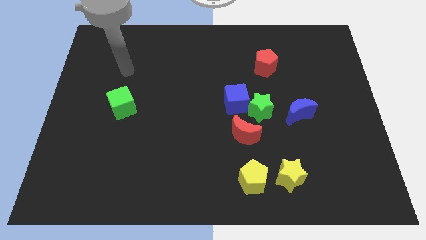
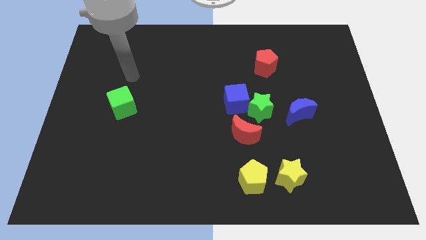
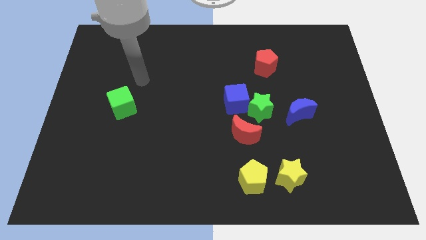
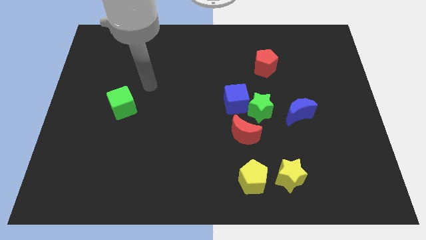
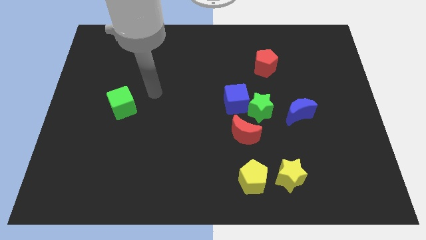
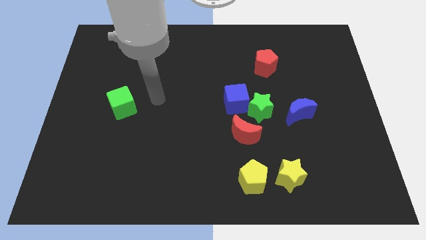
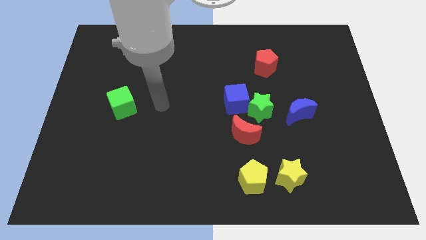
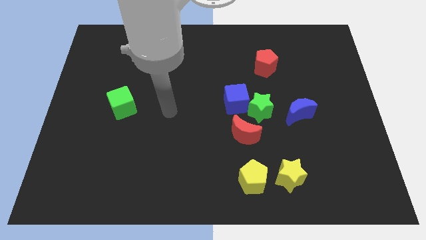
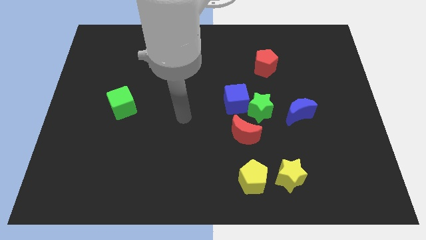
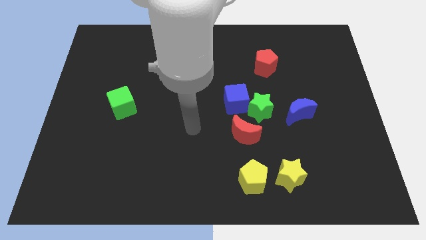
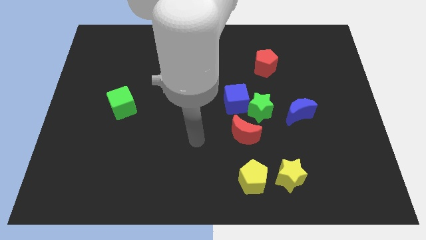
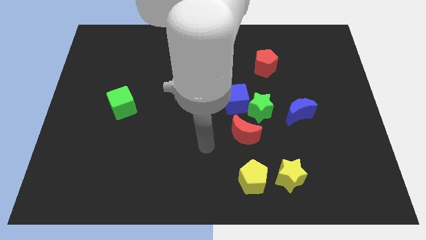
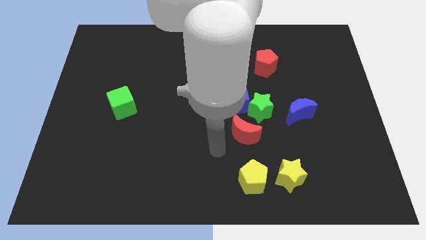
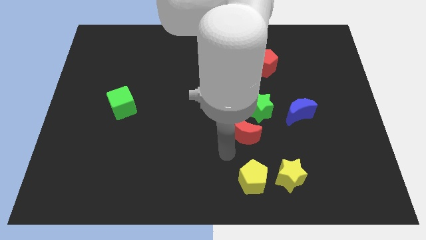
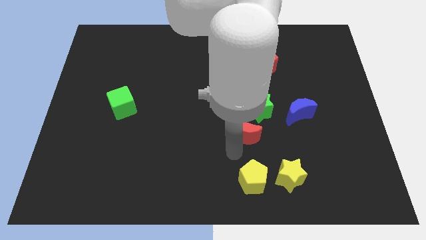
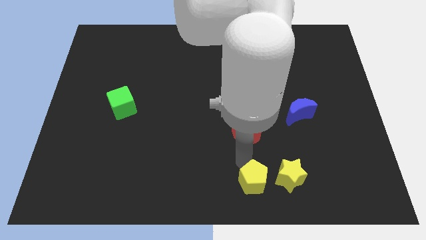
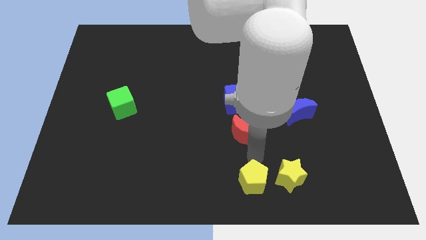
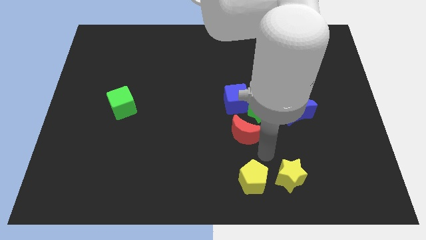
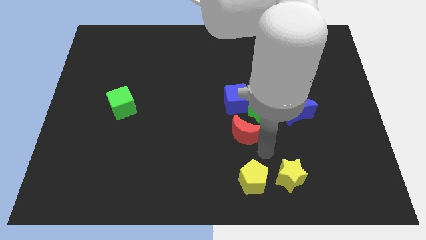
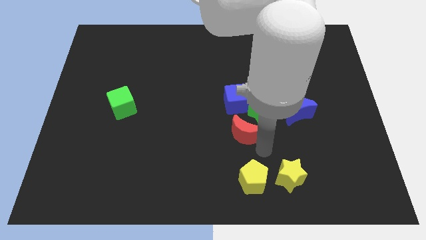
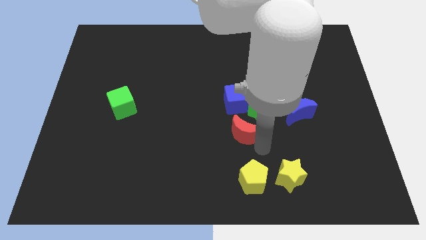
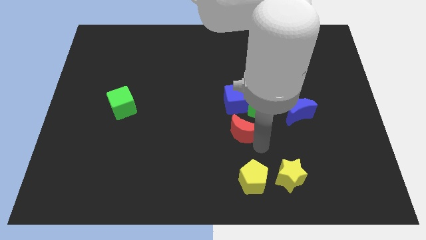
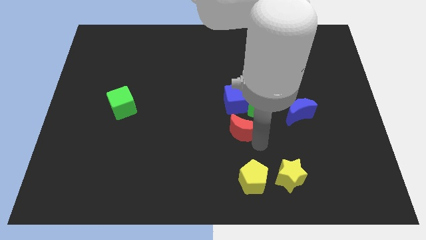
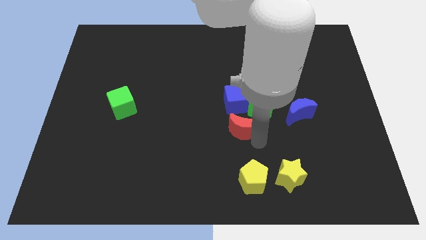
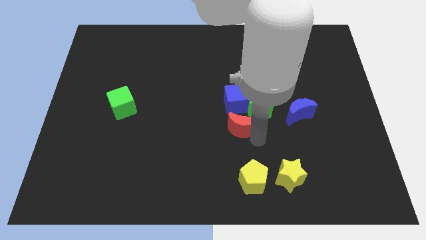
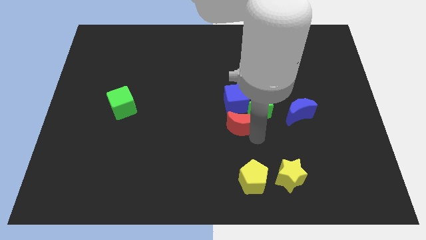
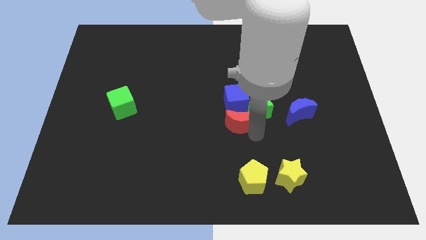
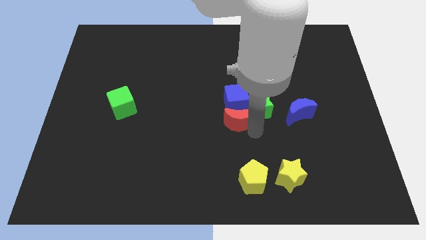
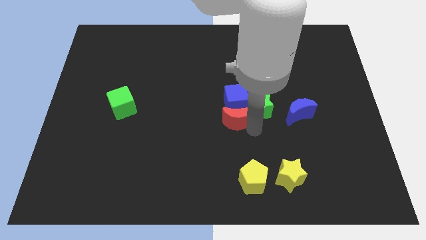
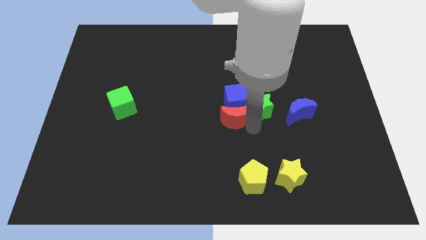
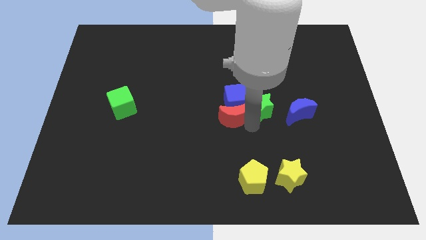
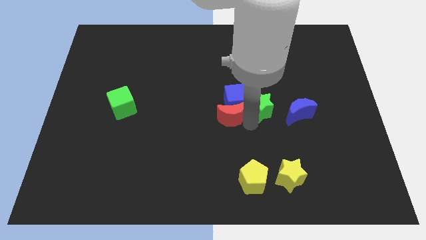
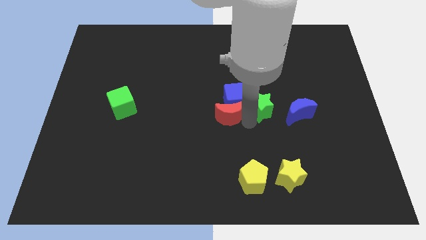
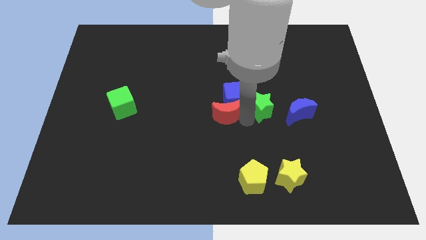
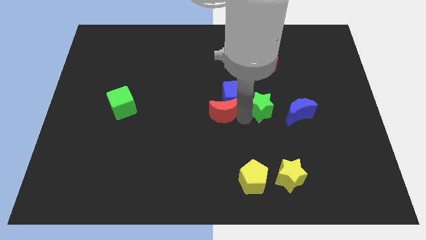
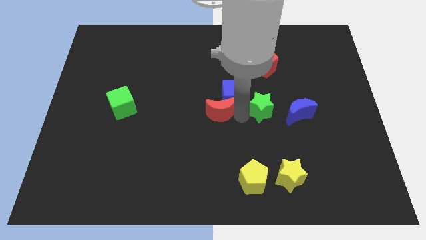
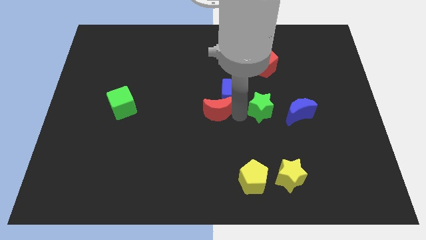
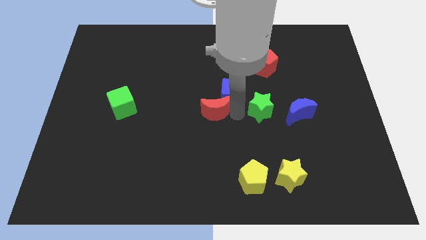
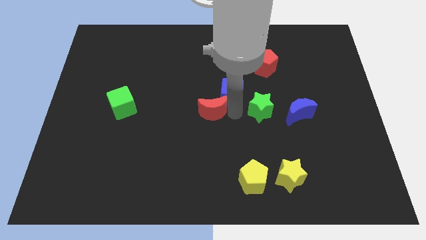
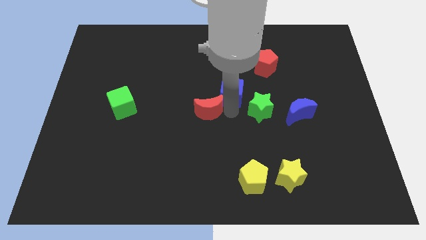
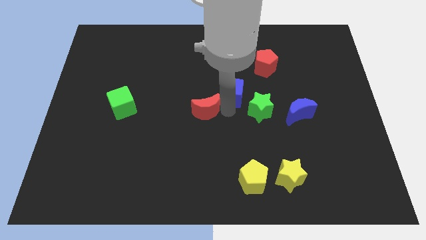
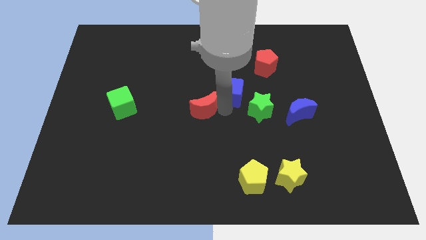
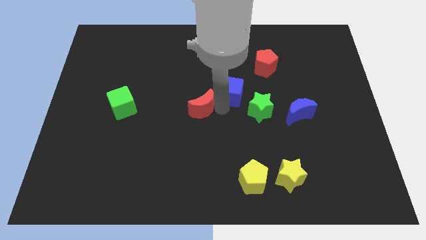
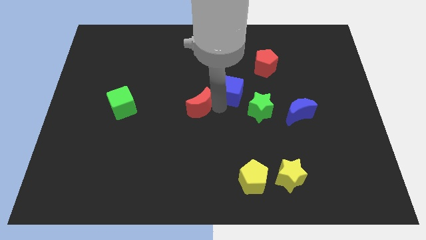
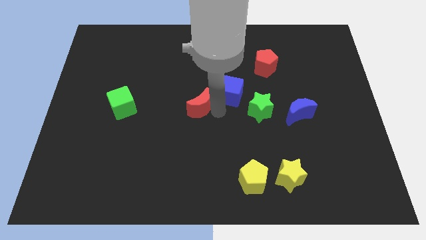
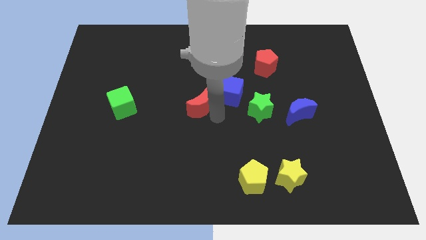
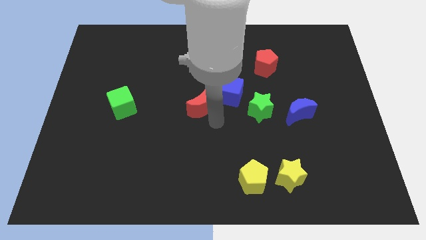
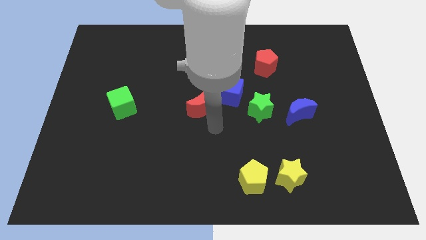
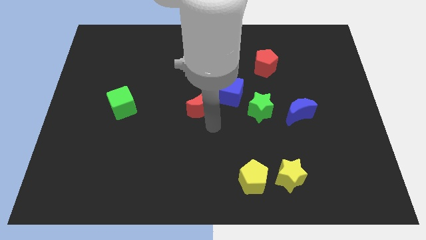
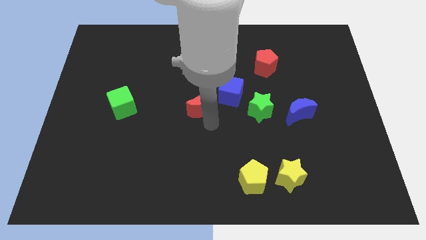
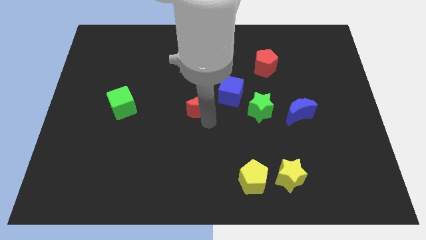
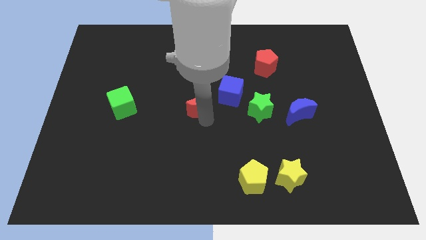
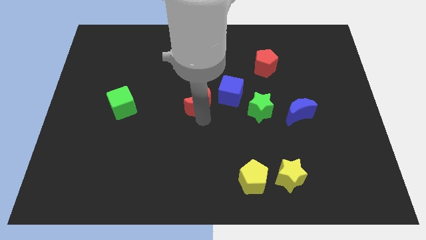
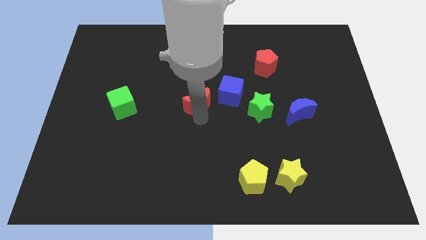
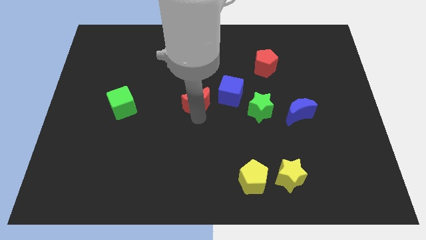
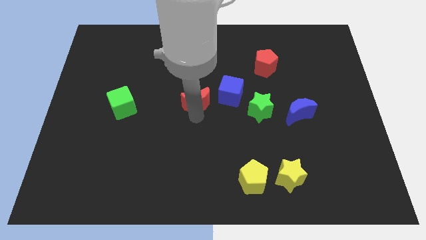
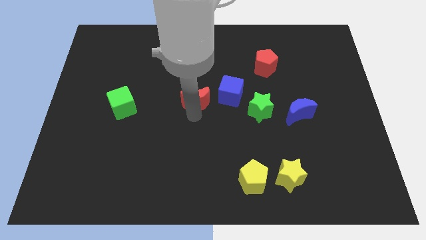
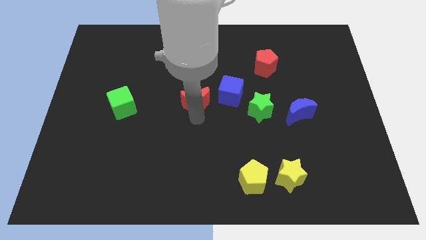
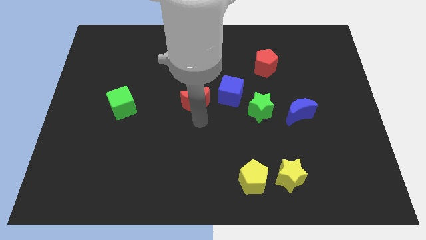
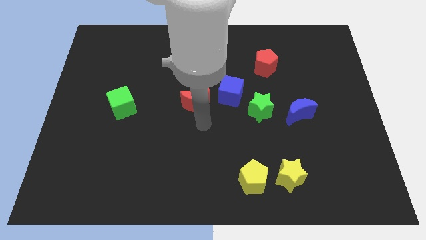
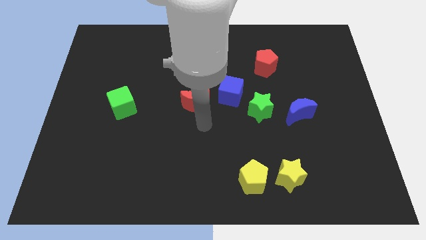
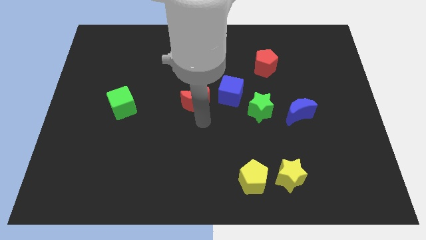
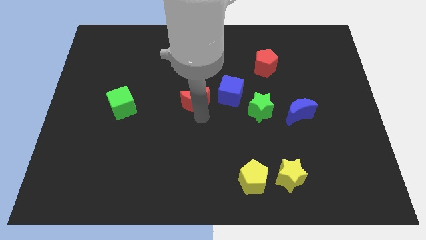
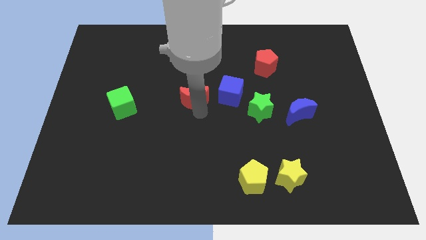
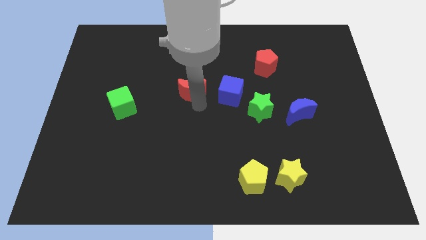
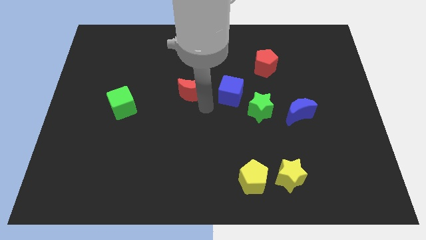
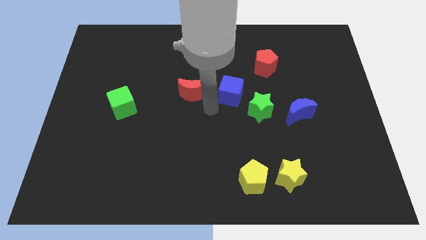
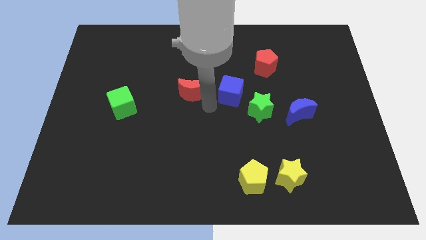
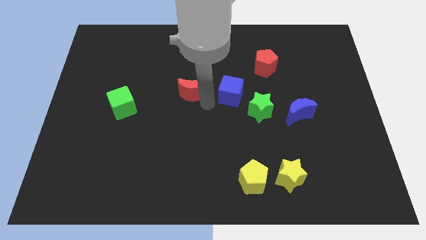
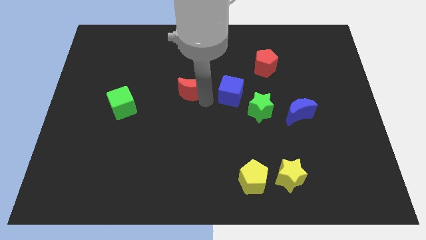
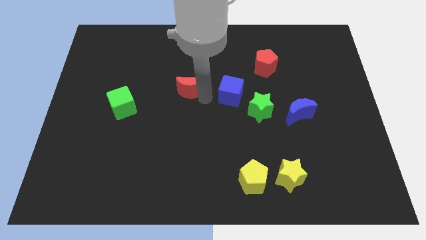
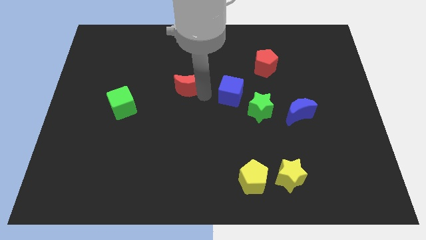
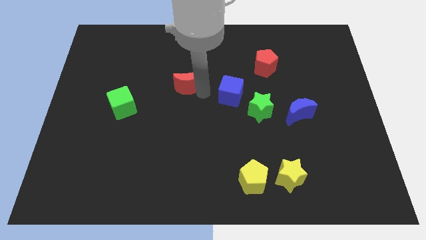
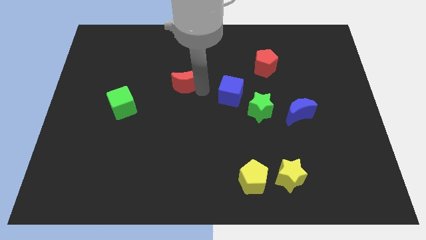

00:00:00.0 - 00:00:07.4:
push the red moon upwards and to the left diagonally

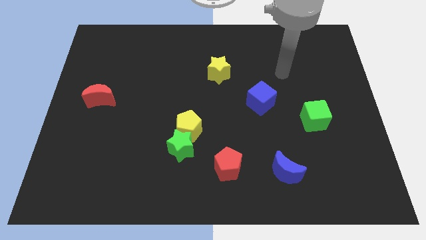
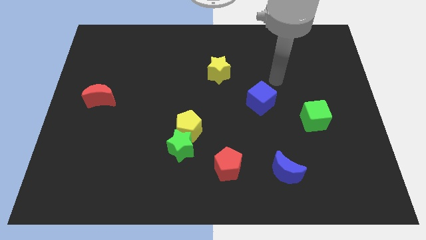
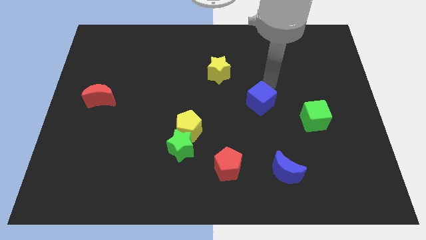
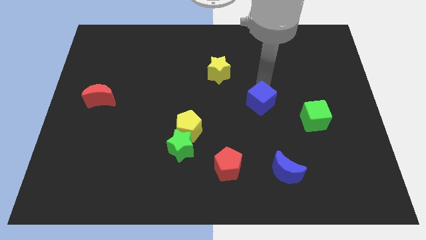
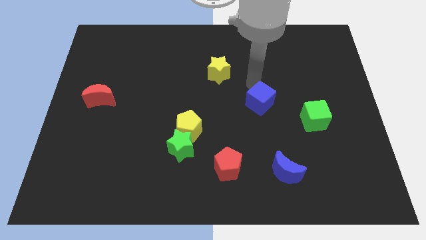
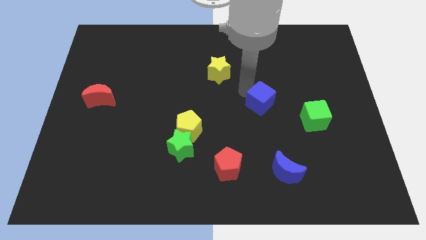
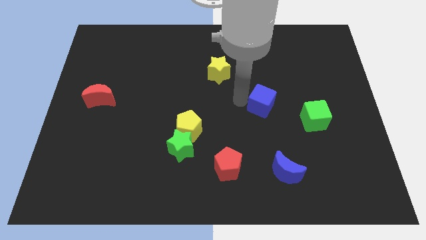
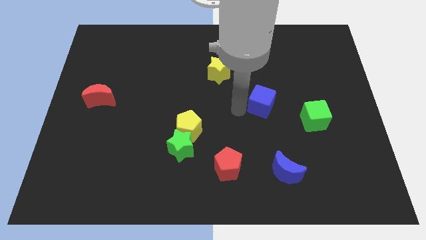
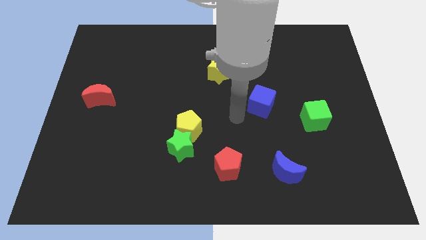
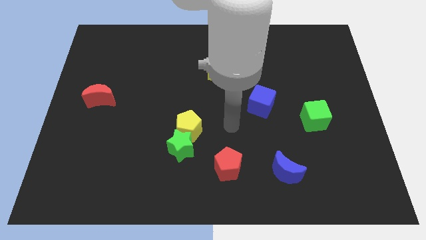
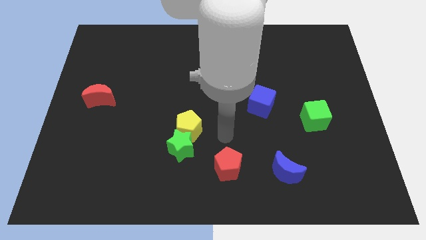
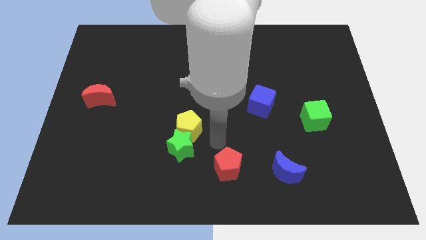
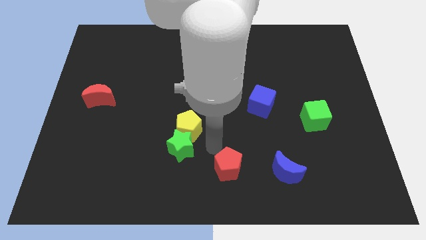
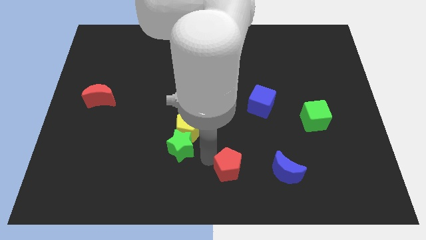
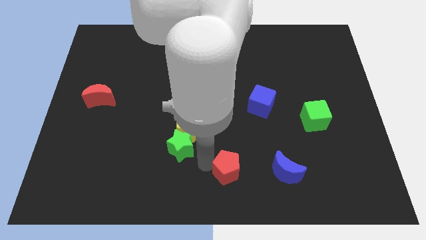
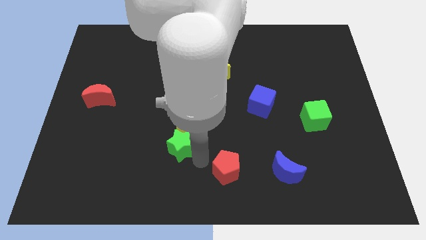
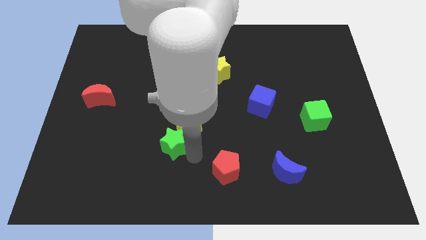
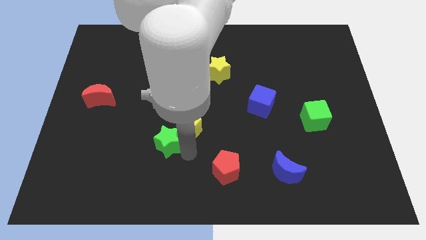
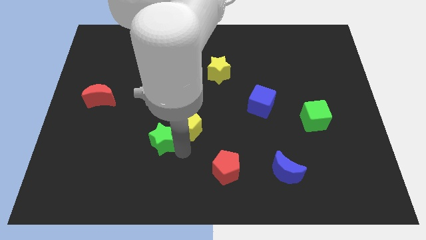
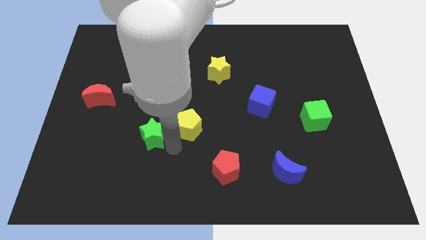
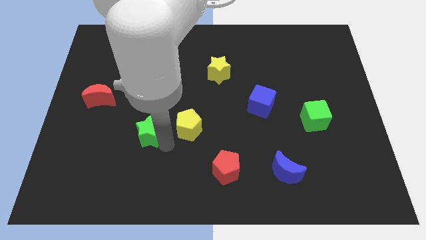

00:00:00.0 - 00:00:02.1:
slightly move the green star upwards and to the left diagonally
